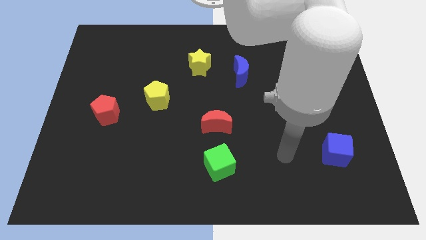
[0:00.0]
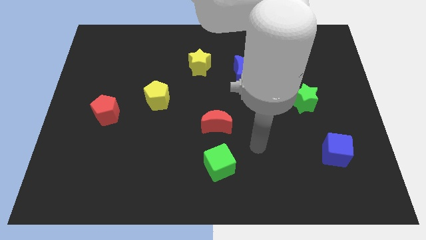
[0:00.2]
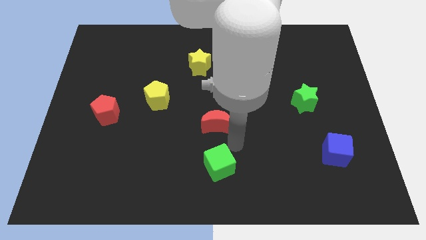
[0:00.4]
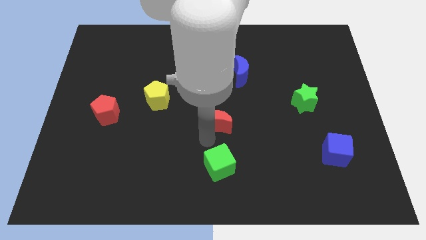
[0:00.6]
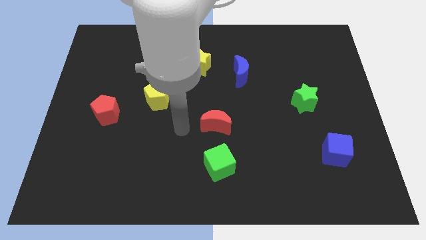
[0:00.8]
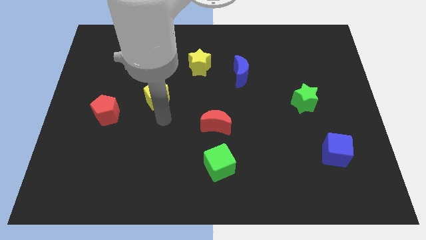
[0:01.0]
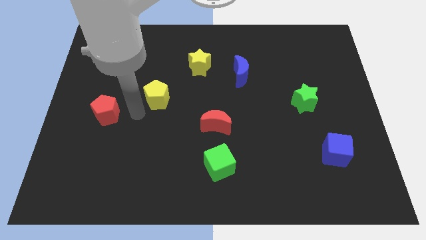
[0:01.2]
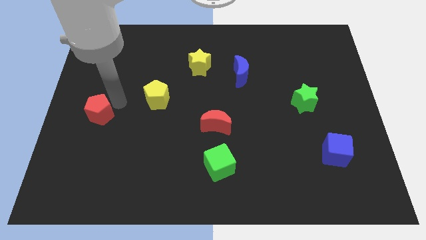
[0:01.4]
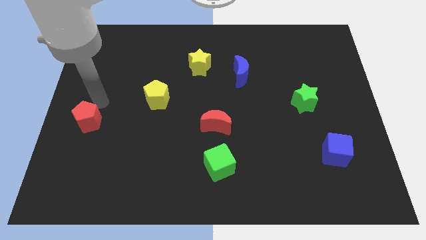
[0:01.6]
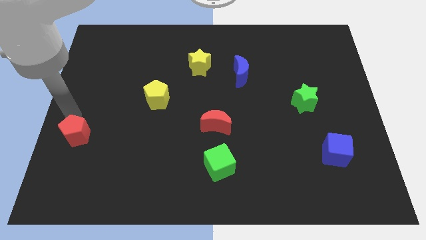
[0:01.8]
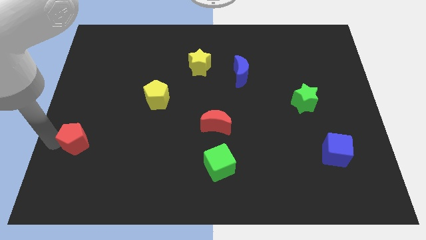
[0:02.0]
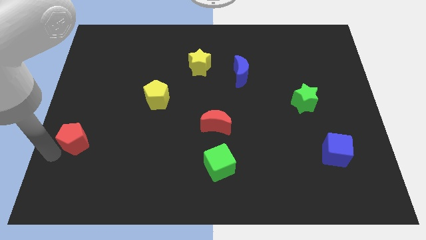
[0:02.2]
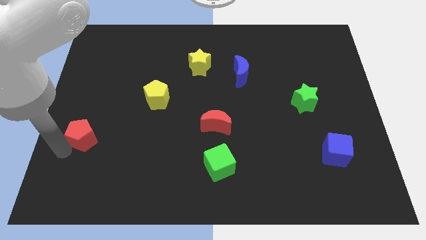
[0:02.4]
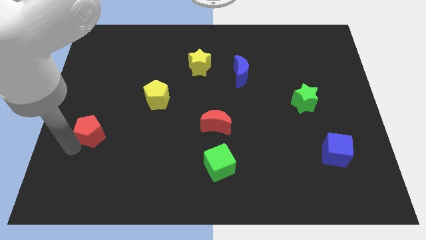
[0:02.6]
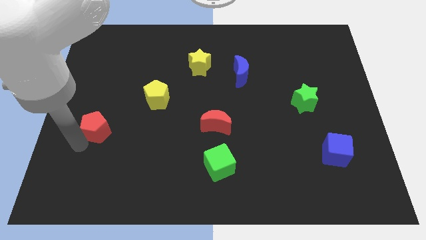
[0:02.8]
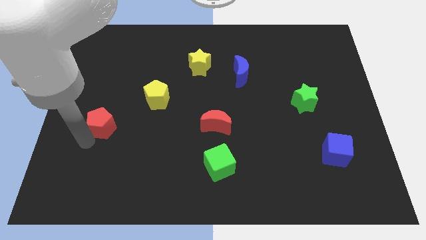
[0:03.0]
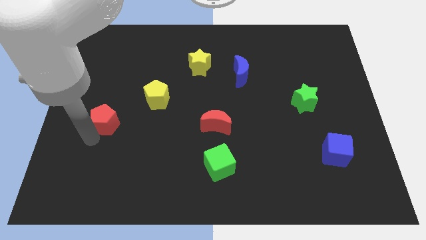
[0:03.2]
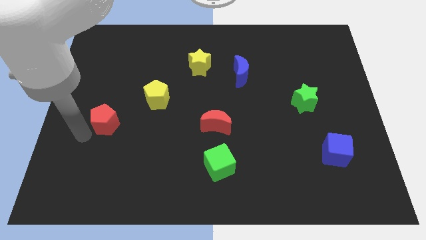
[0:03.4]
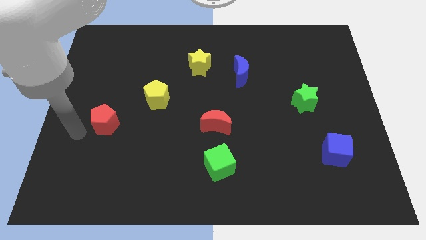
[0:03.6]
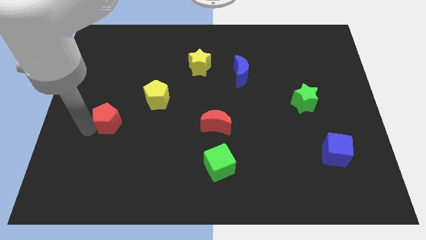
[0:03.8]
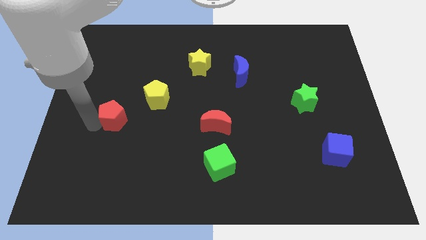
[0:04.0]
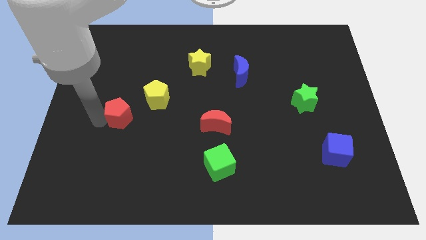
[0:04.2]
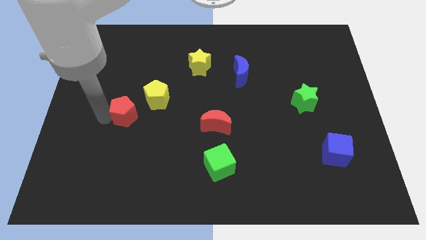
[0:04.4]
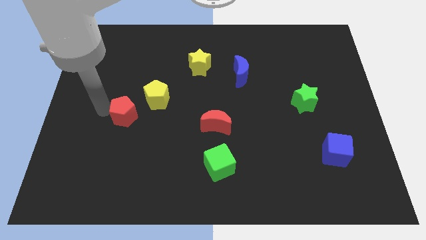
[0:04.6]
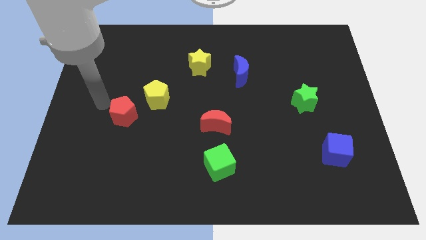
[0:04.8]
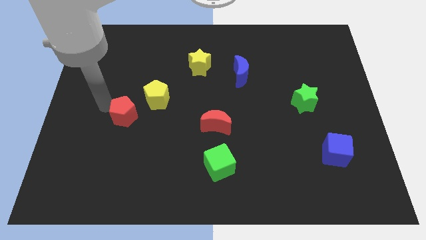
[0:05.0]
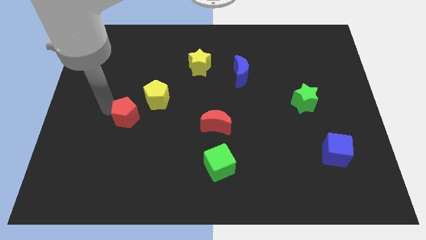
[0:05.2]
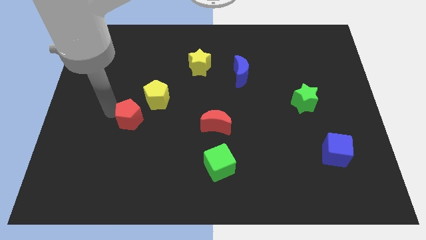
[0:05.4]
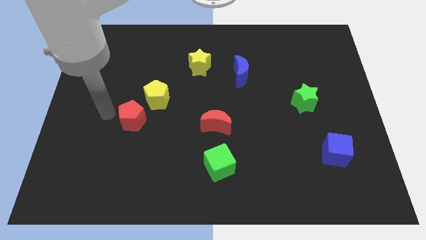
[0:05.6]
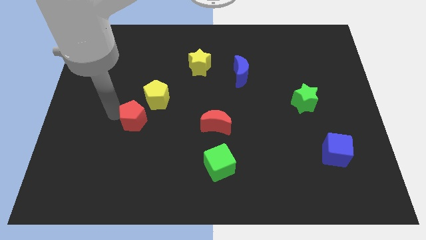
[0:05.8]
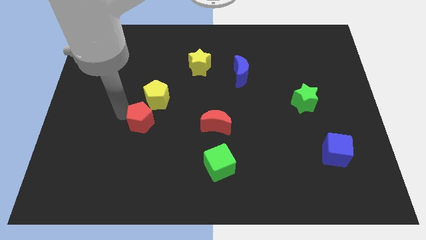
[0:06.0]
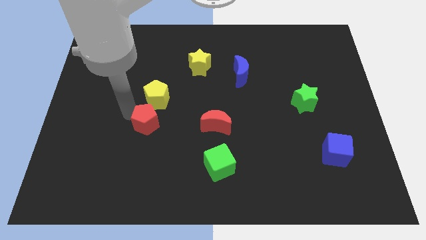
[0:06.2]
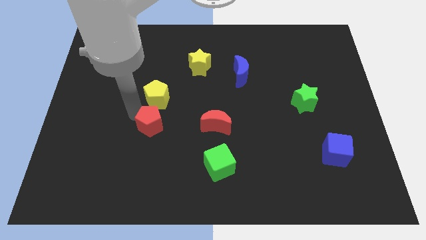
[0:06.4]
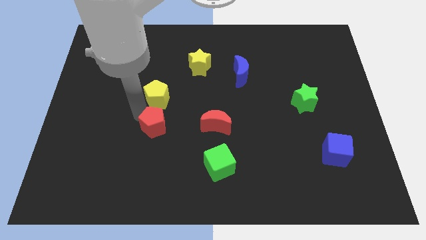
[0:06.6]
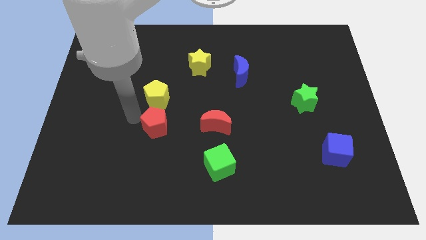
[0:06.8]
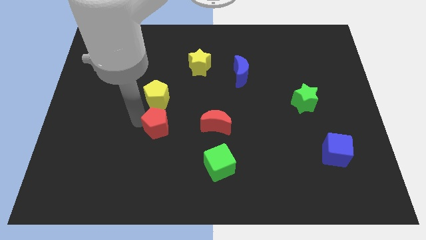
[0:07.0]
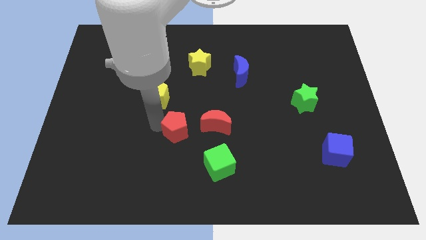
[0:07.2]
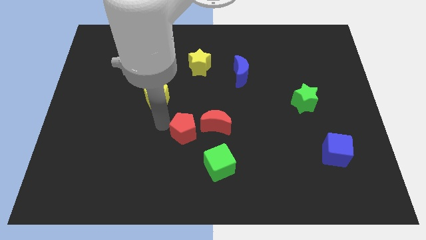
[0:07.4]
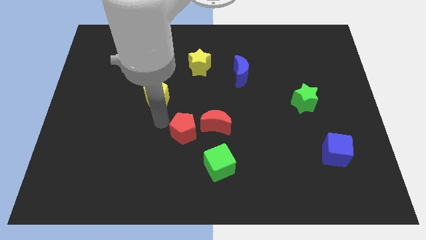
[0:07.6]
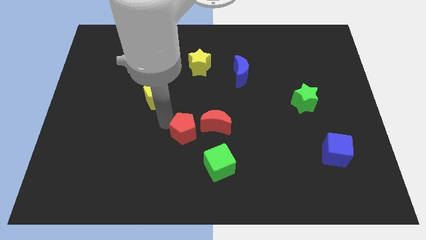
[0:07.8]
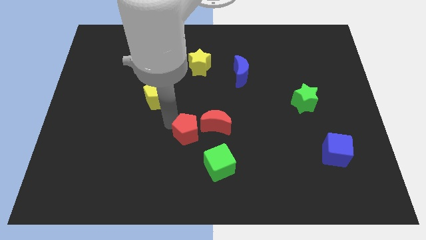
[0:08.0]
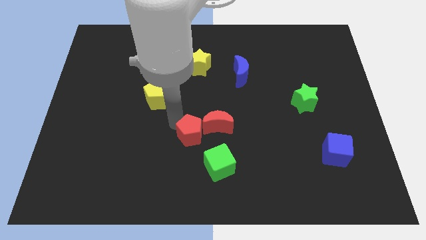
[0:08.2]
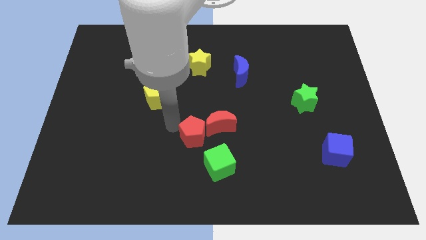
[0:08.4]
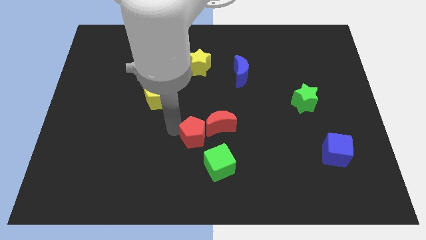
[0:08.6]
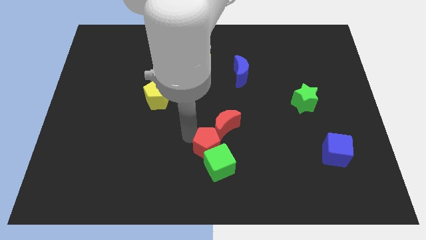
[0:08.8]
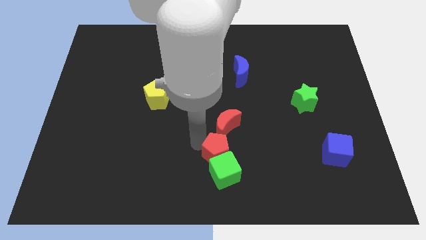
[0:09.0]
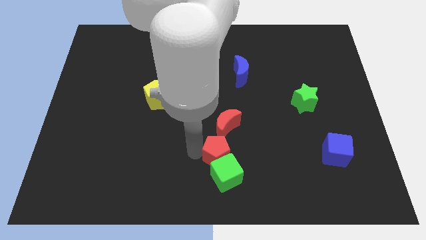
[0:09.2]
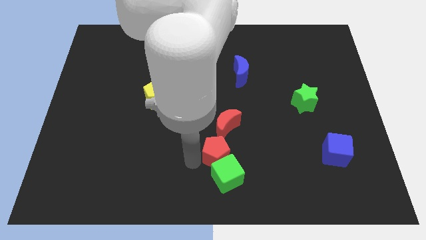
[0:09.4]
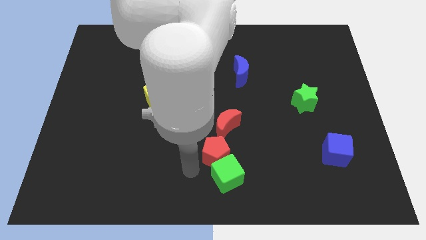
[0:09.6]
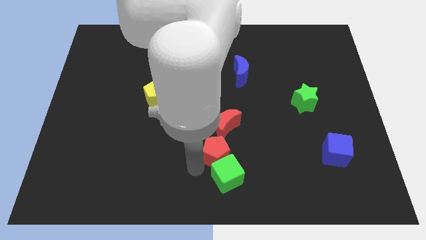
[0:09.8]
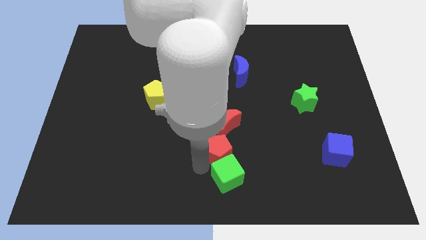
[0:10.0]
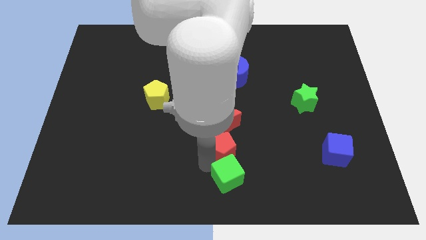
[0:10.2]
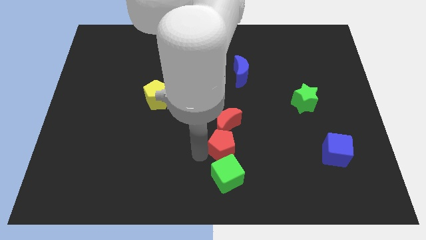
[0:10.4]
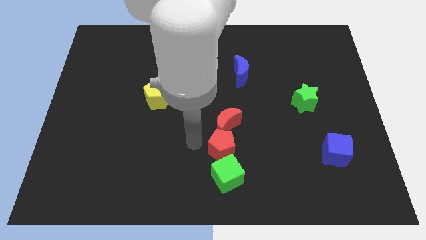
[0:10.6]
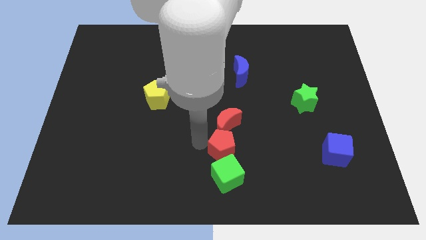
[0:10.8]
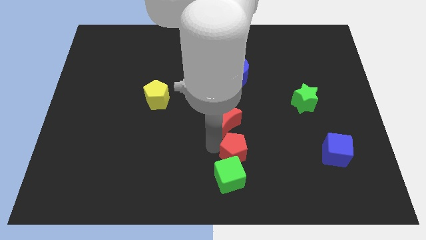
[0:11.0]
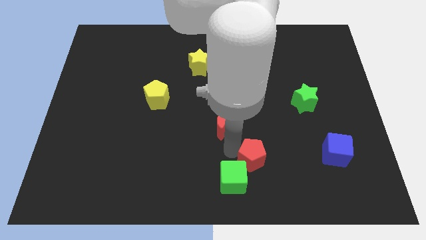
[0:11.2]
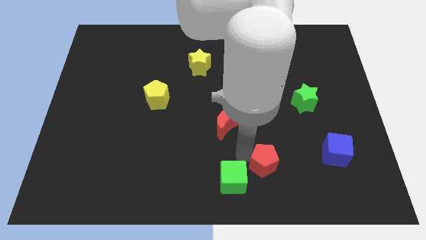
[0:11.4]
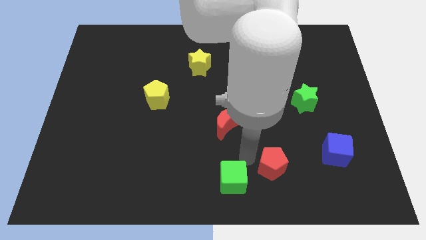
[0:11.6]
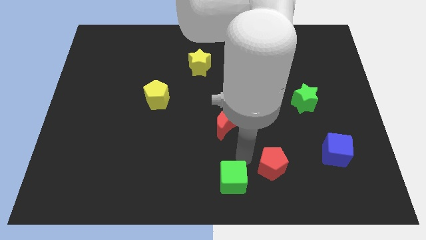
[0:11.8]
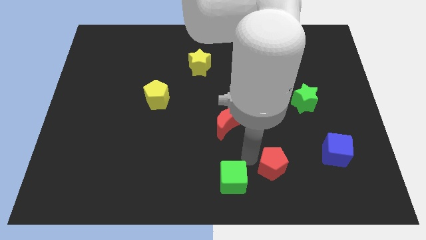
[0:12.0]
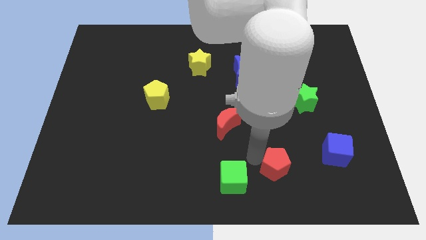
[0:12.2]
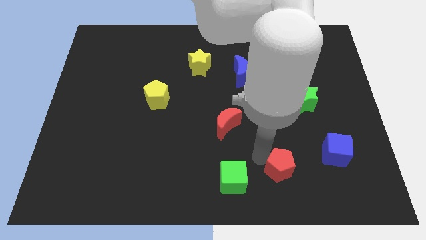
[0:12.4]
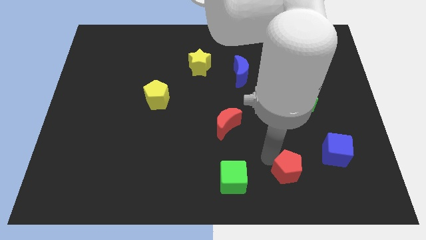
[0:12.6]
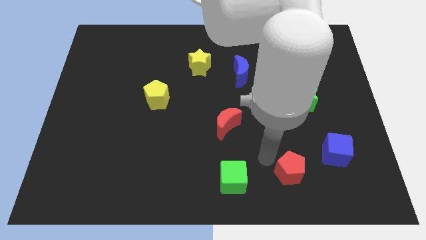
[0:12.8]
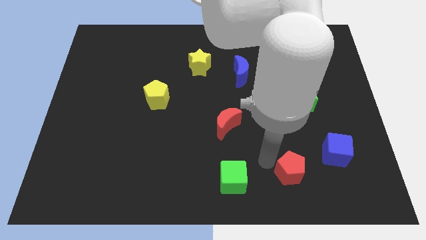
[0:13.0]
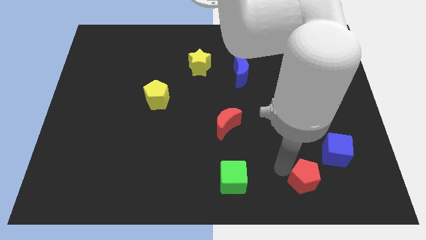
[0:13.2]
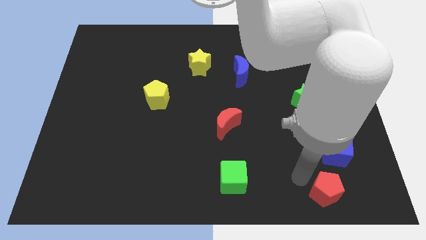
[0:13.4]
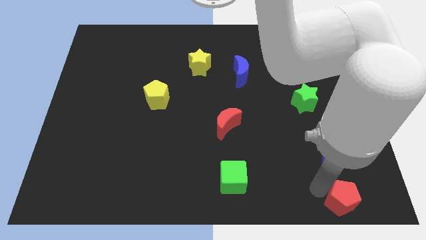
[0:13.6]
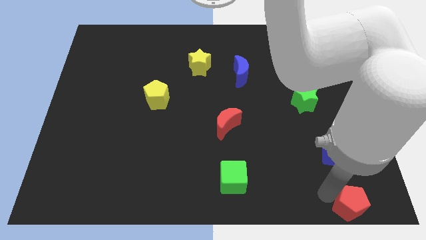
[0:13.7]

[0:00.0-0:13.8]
slide the red pentagon to the bottom right of the board
